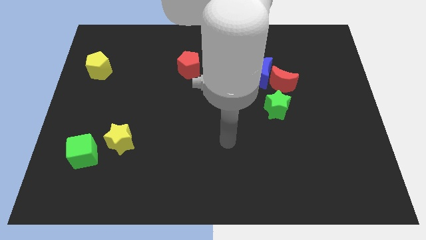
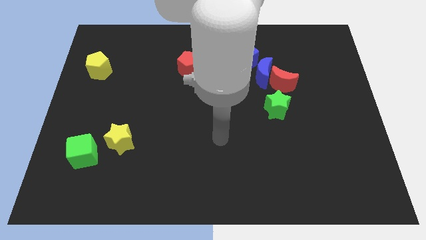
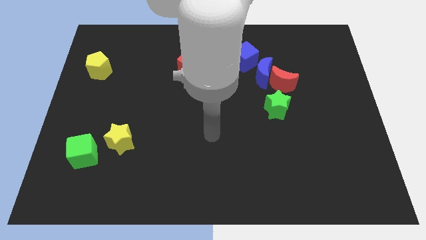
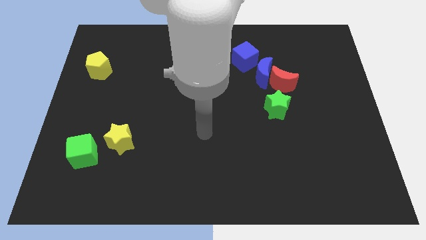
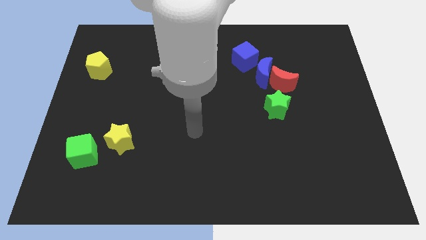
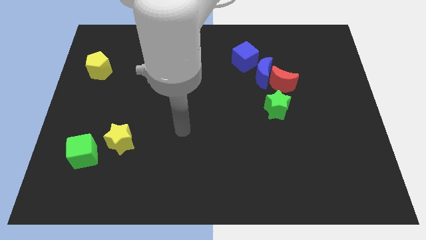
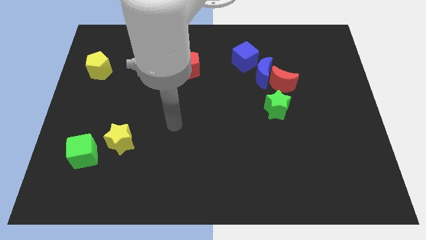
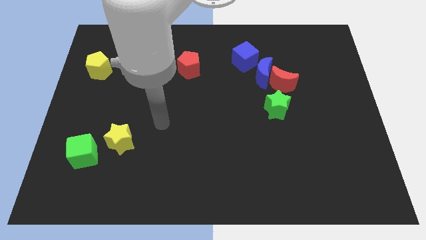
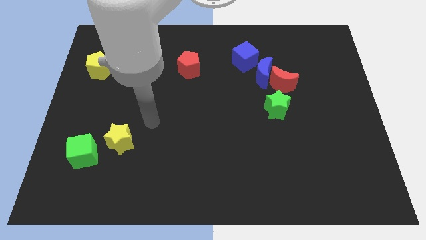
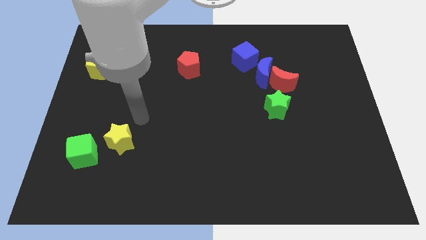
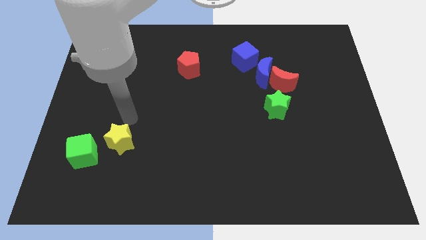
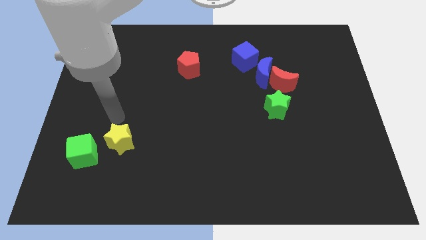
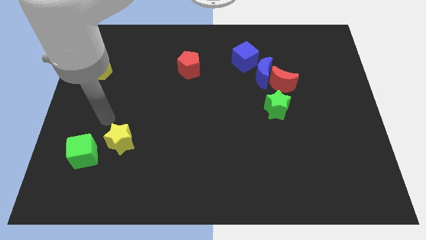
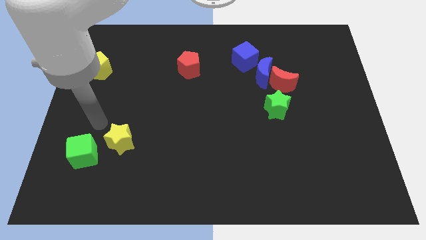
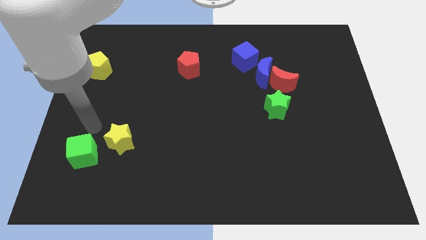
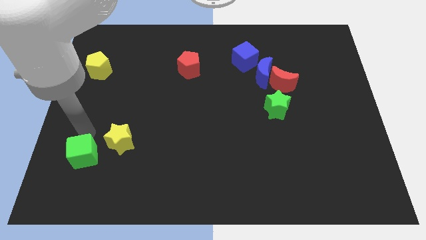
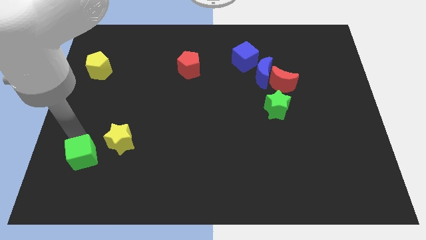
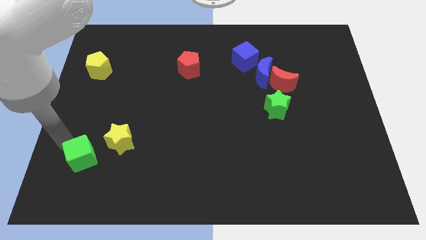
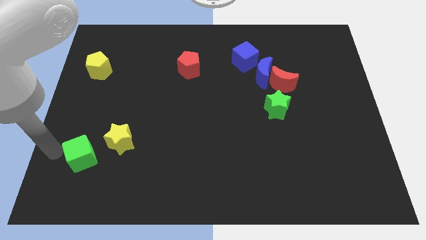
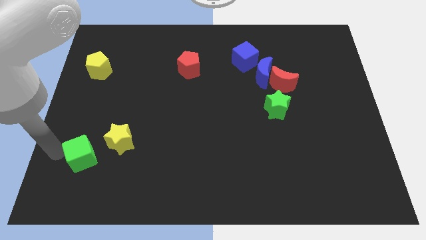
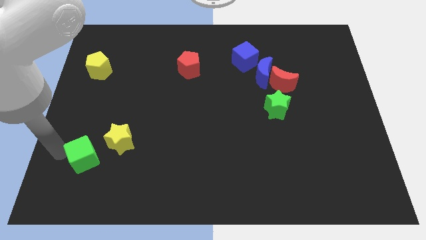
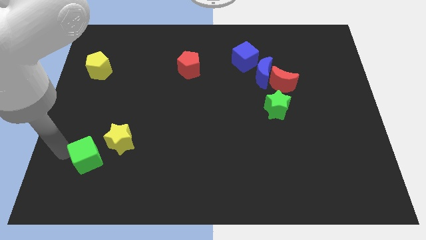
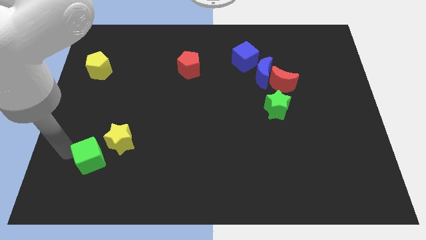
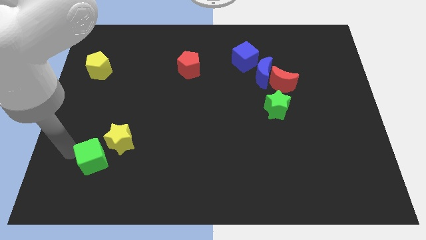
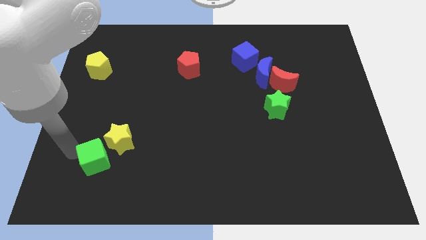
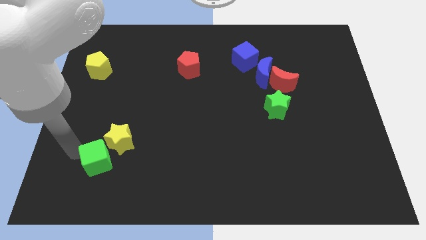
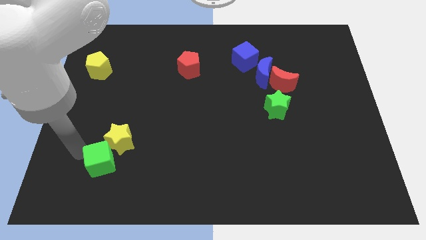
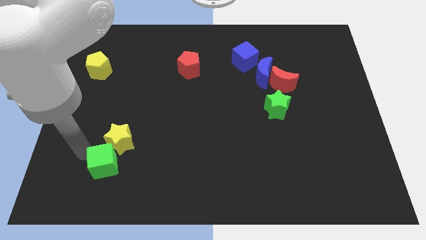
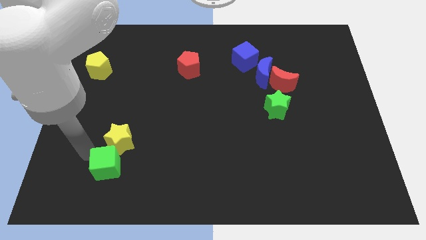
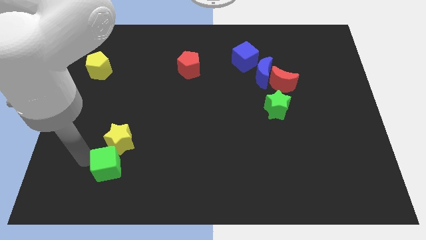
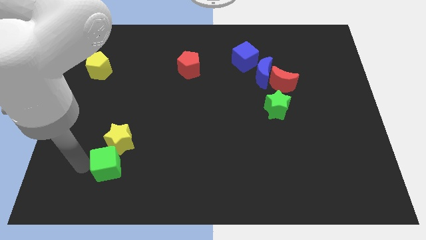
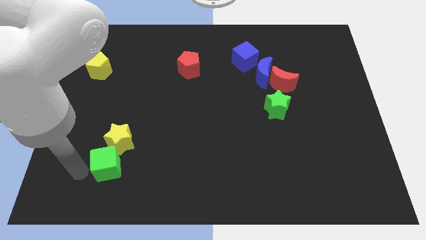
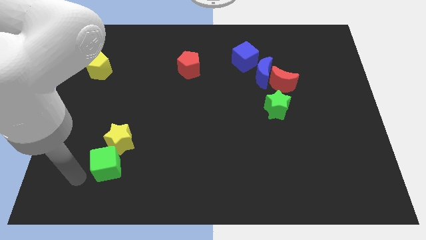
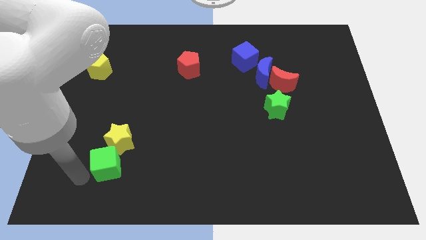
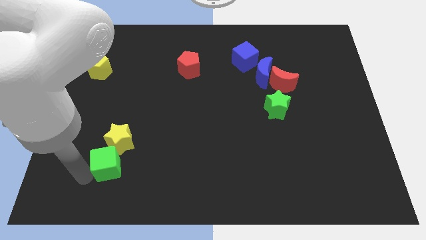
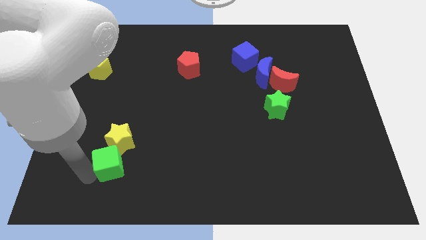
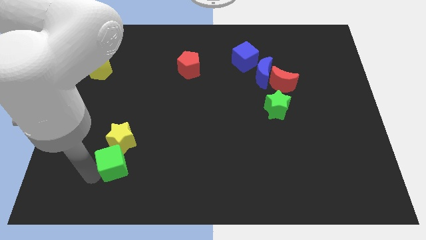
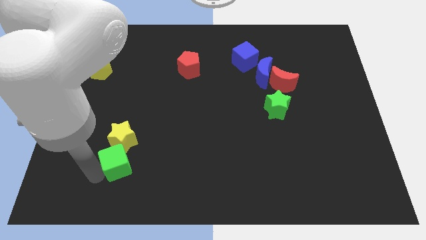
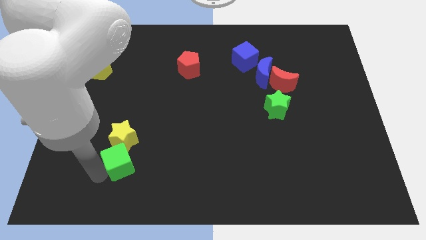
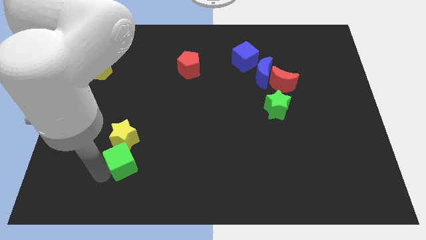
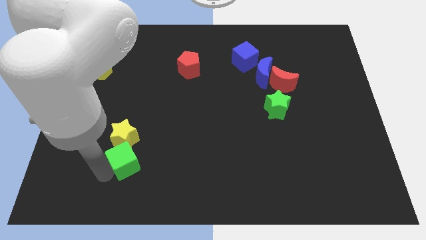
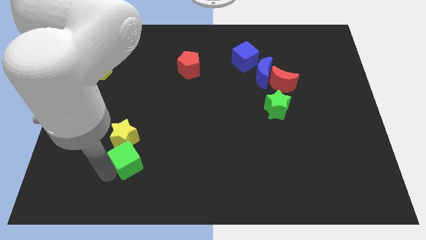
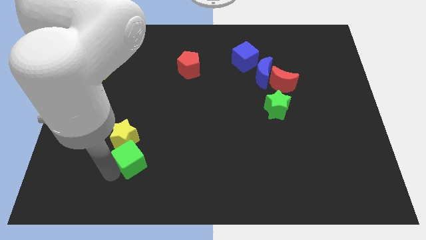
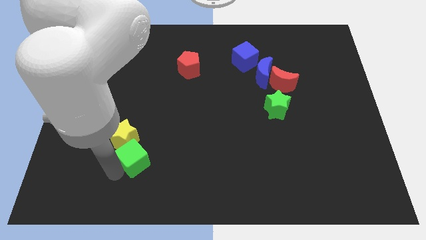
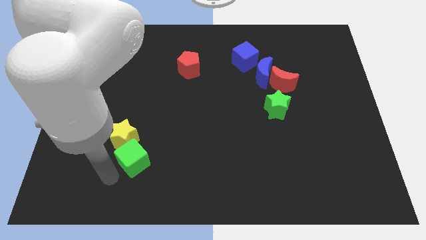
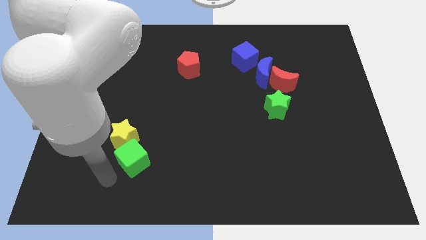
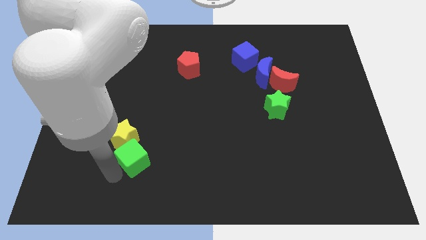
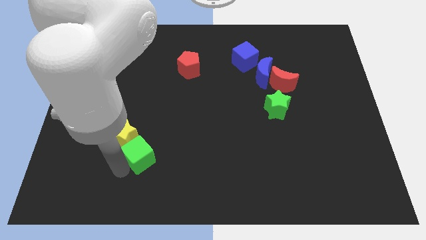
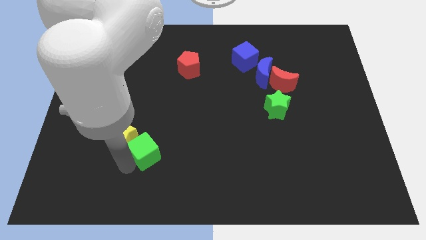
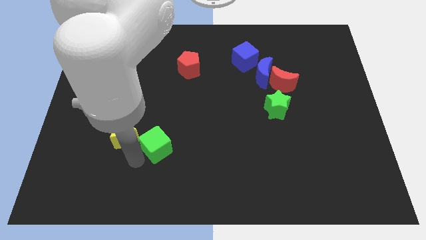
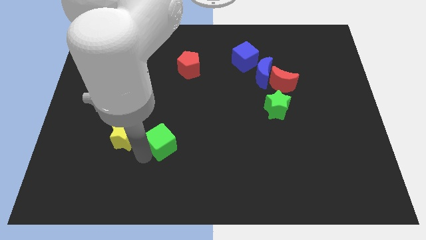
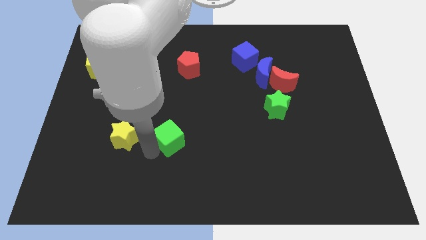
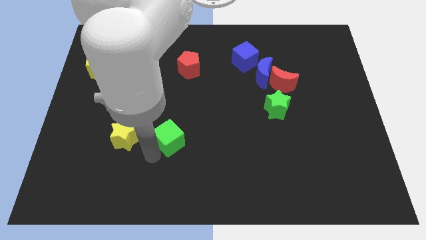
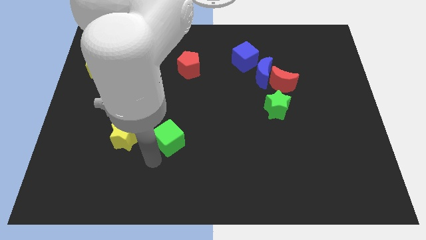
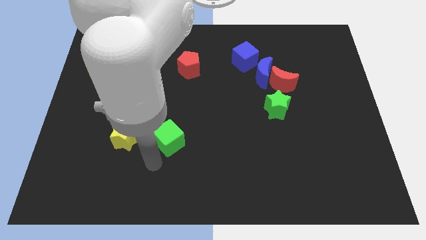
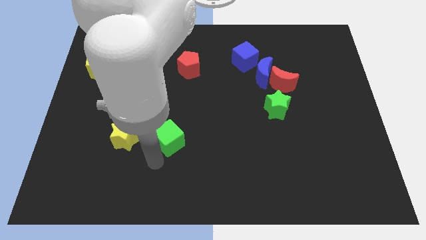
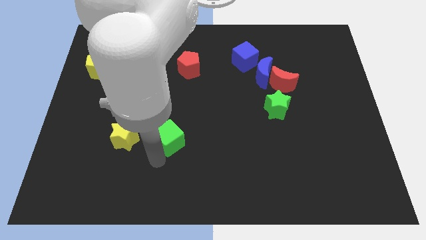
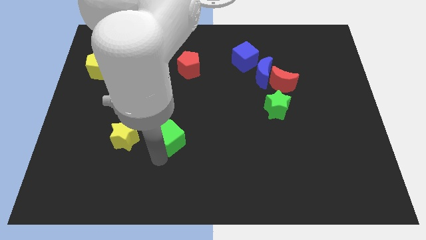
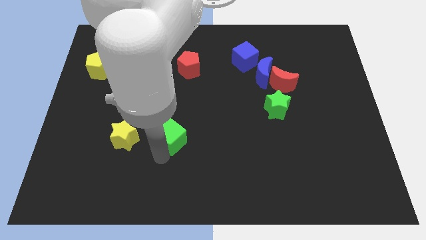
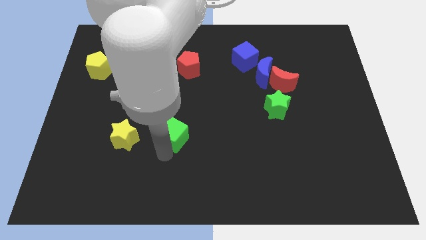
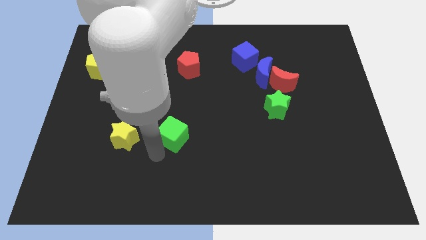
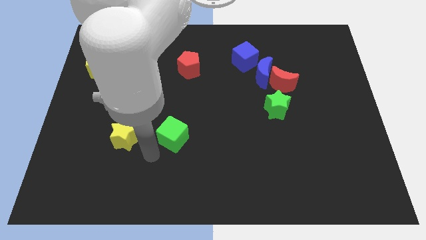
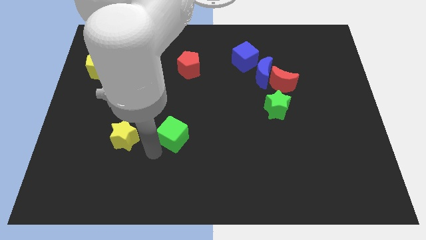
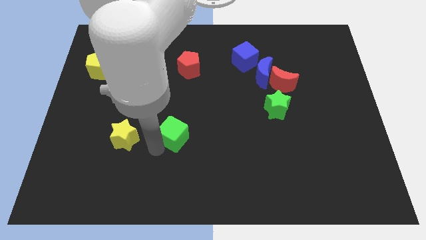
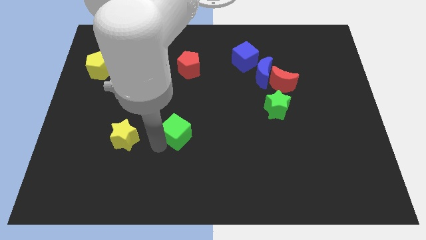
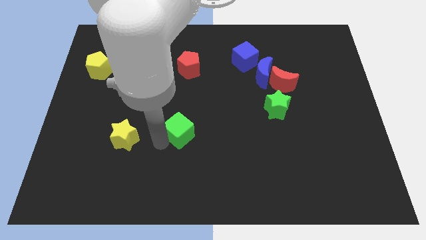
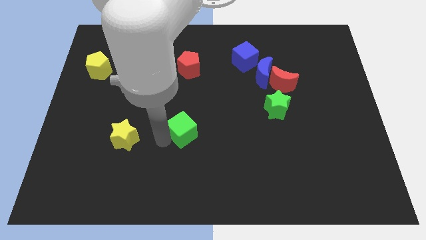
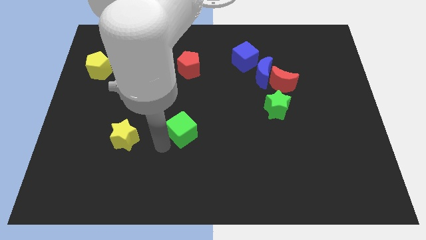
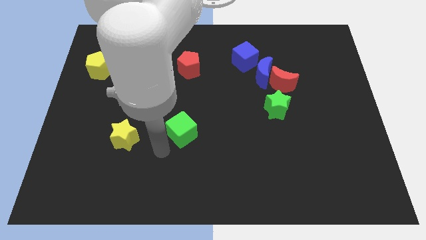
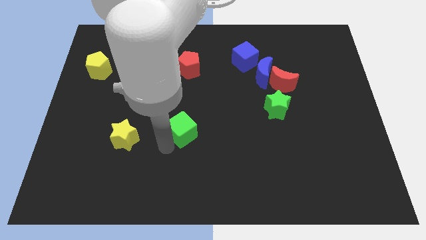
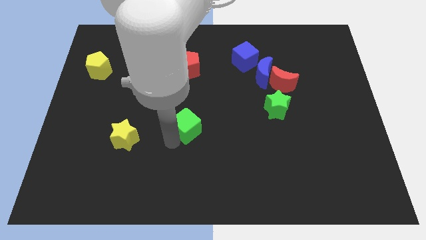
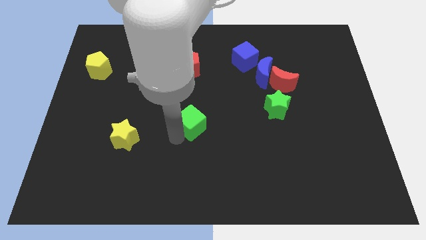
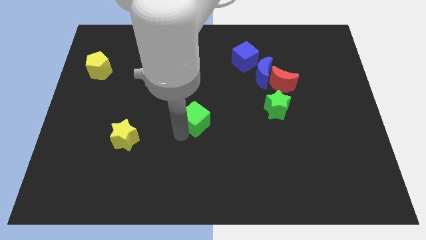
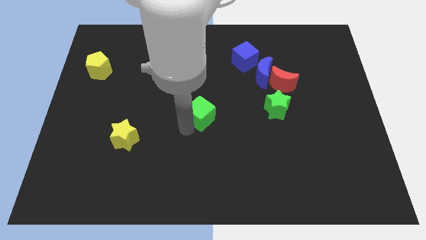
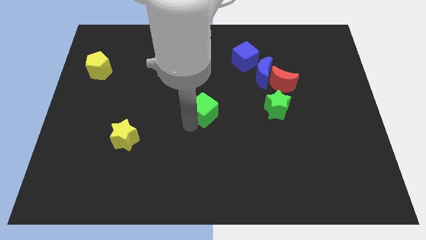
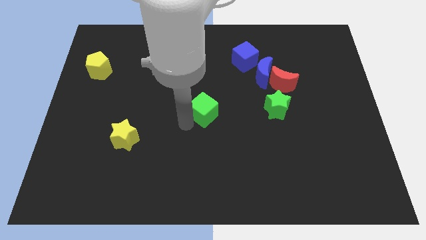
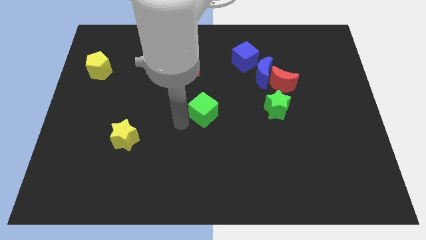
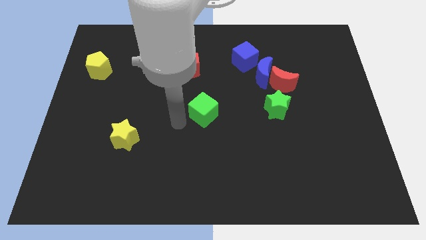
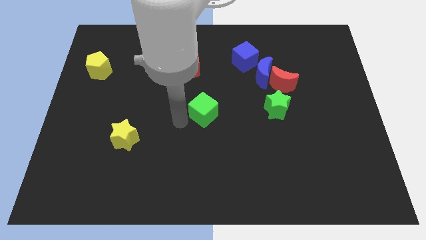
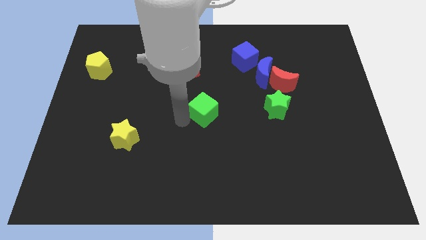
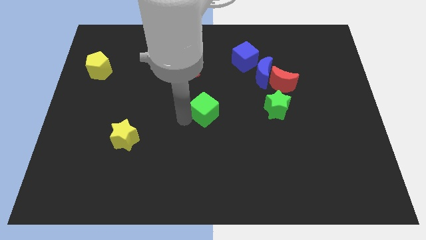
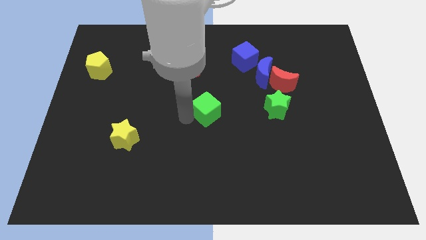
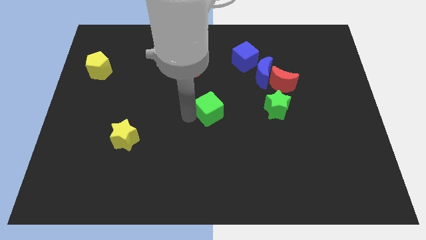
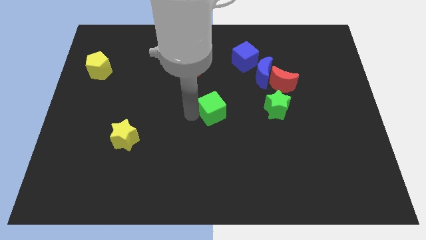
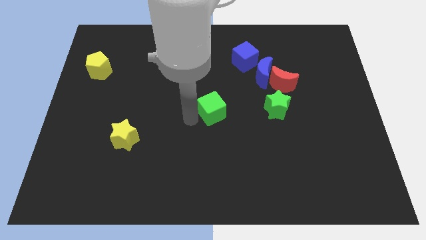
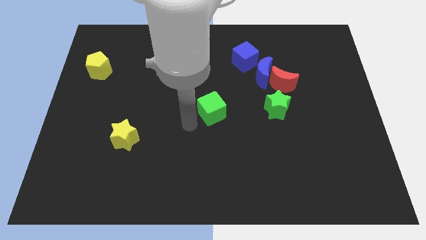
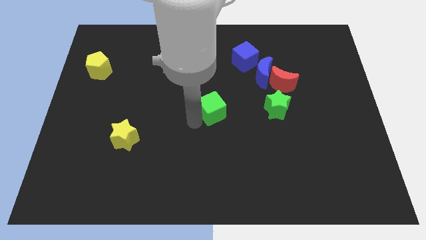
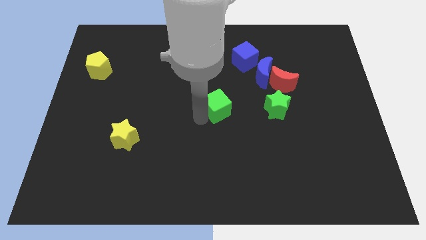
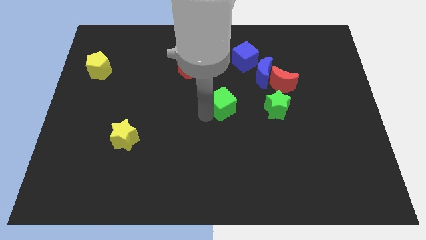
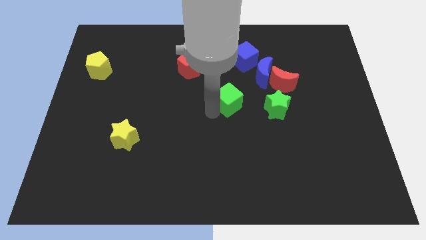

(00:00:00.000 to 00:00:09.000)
slide the green cube to the bottom left side of the blue moon
